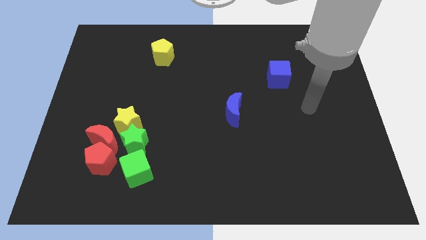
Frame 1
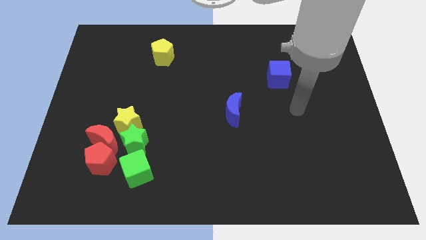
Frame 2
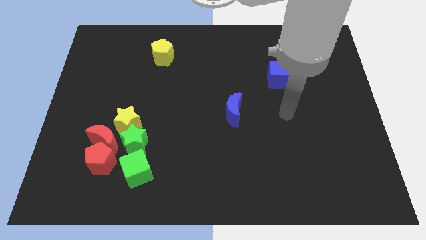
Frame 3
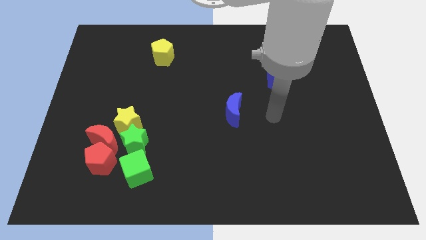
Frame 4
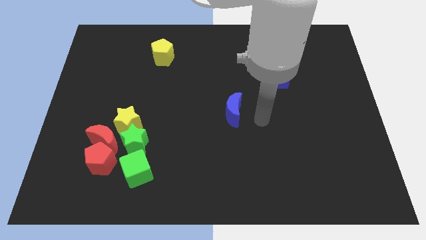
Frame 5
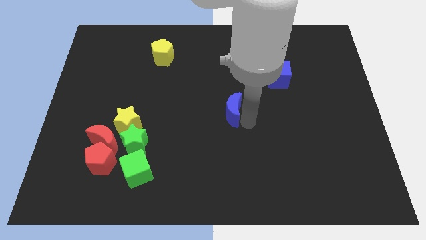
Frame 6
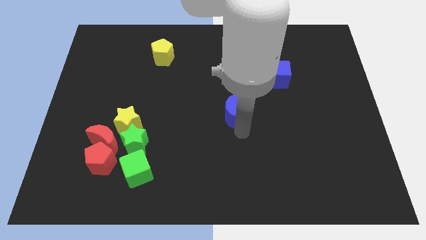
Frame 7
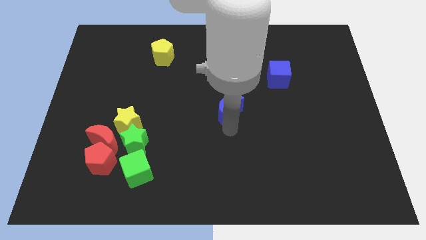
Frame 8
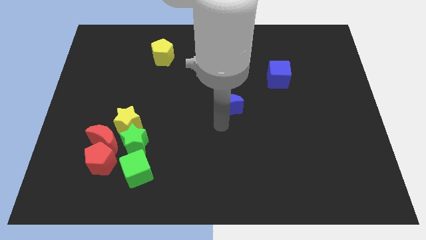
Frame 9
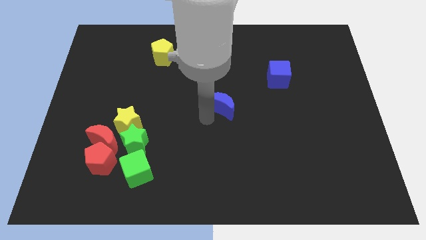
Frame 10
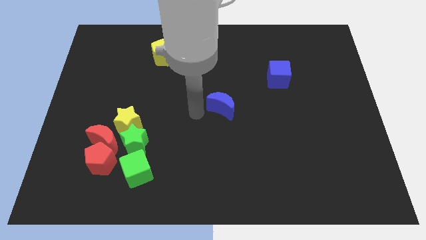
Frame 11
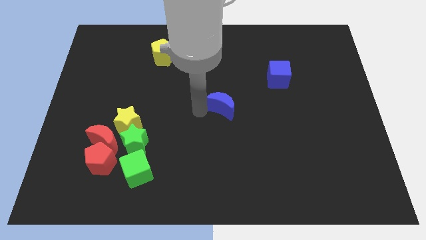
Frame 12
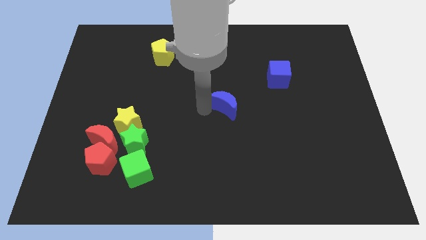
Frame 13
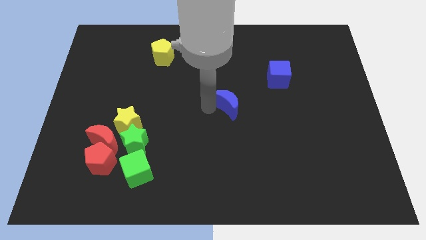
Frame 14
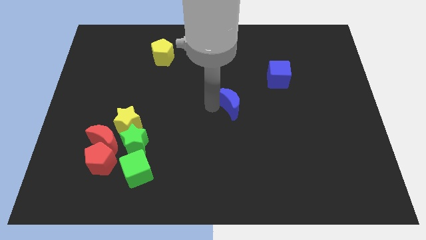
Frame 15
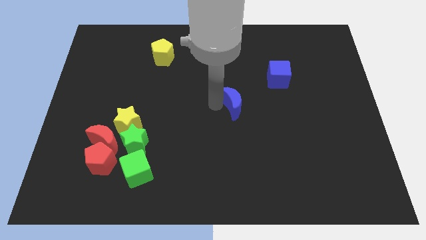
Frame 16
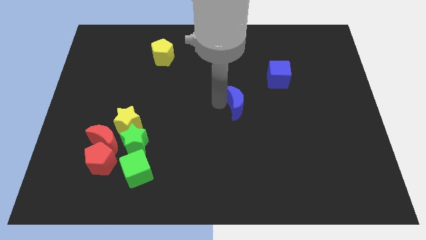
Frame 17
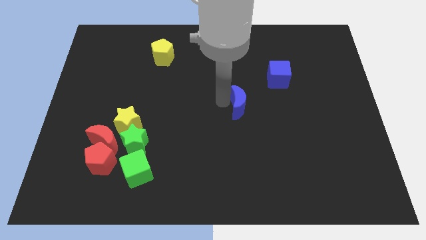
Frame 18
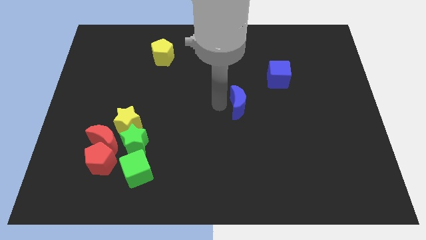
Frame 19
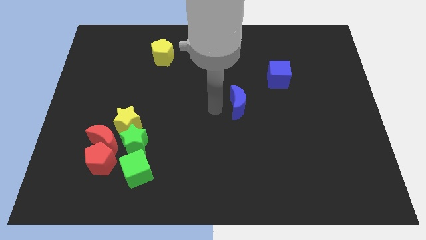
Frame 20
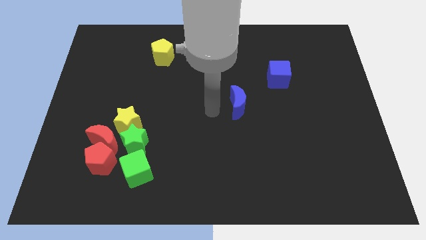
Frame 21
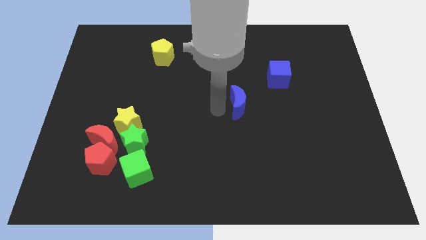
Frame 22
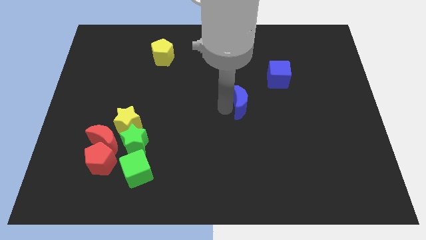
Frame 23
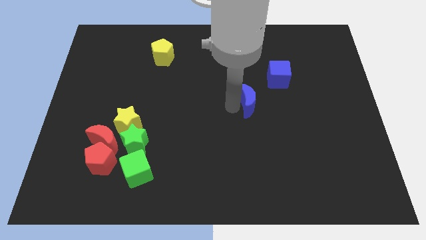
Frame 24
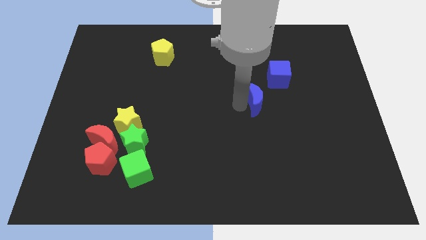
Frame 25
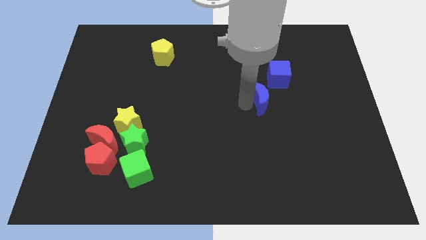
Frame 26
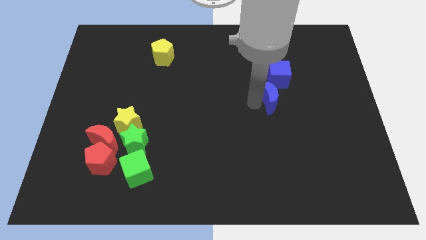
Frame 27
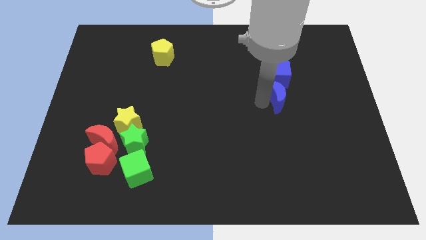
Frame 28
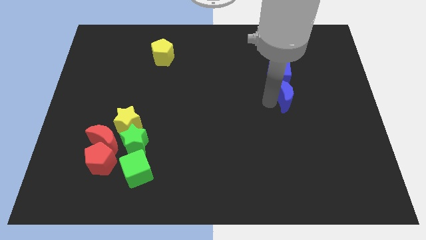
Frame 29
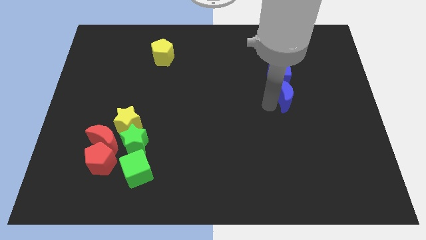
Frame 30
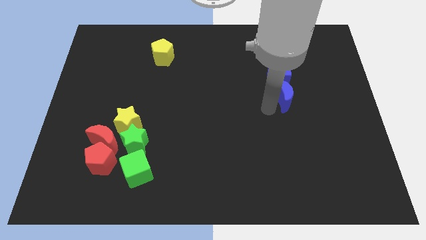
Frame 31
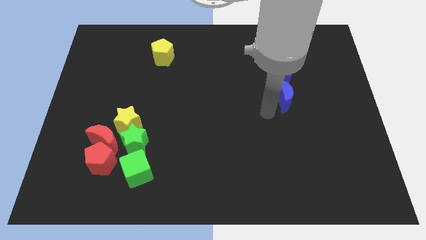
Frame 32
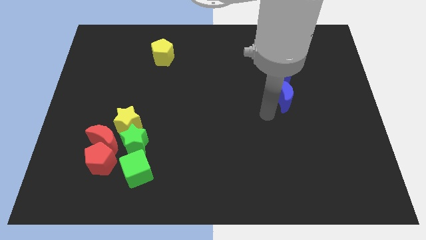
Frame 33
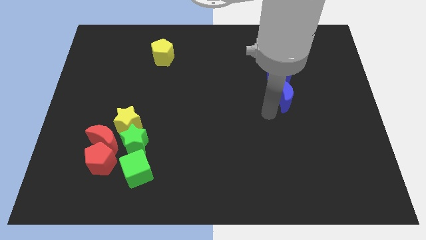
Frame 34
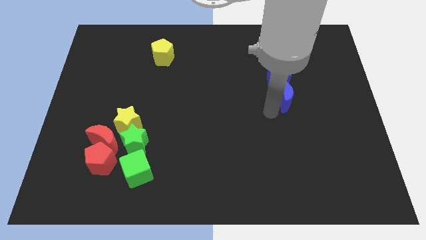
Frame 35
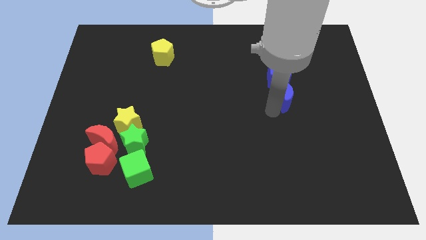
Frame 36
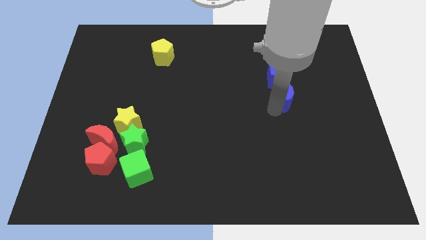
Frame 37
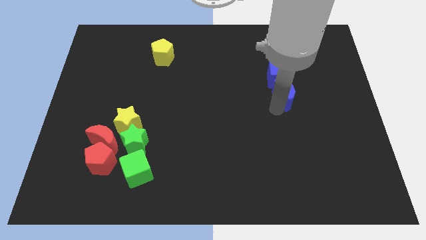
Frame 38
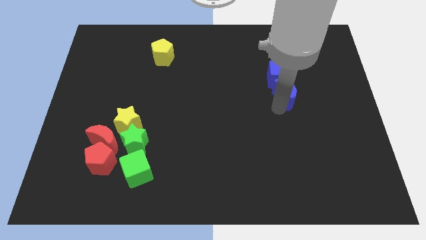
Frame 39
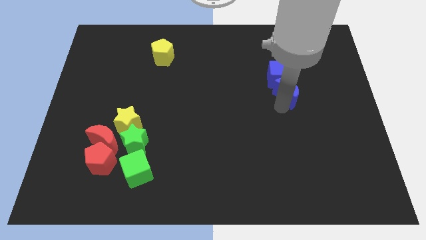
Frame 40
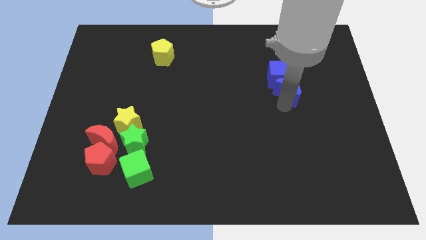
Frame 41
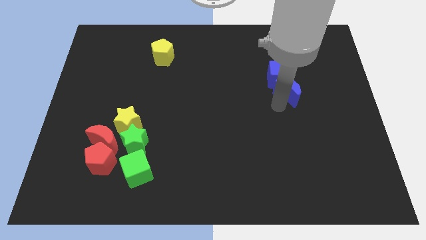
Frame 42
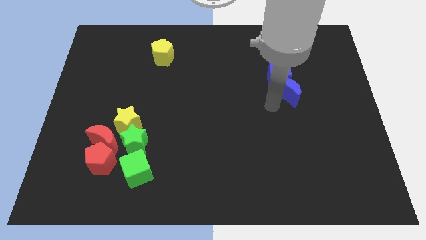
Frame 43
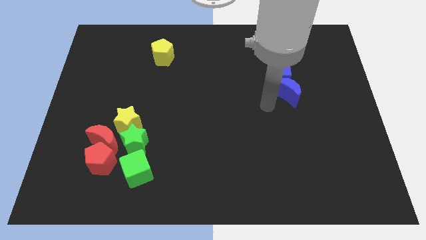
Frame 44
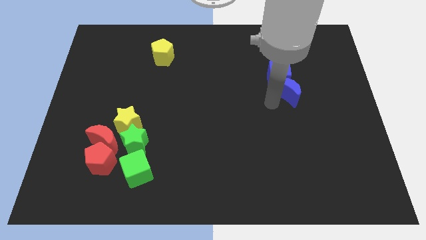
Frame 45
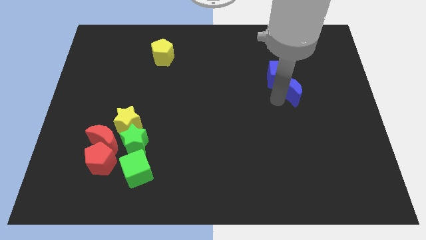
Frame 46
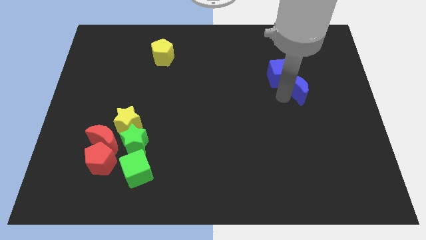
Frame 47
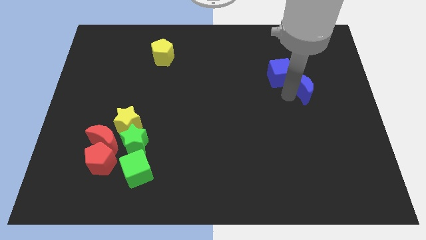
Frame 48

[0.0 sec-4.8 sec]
slide the blue moon just right of the blue cube

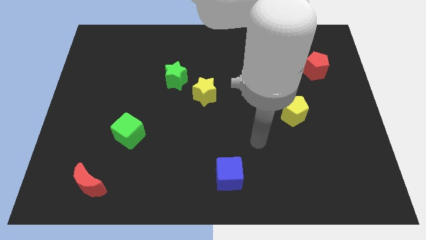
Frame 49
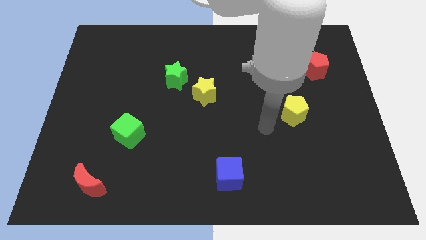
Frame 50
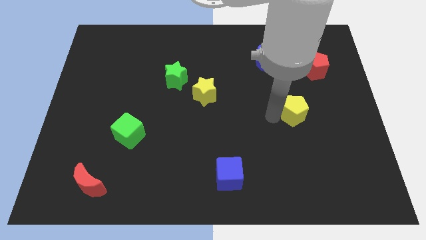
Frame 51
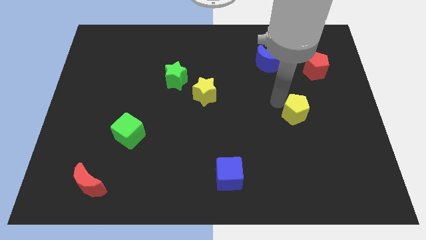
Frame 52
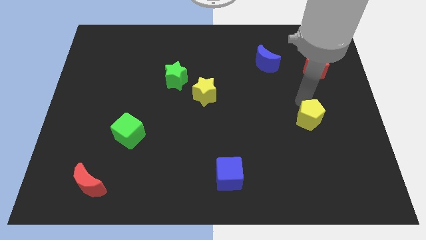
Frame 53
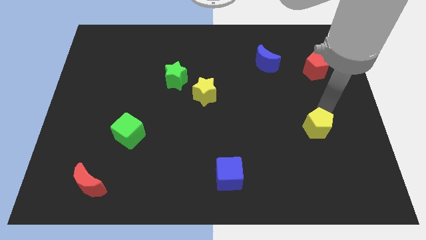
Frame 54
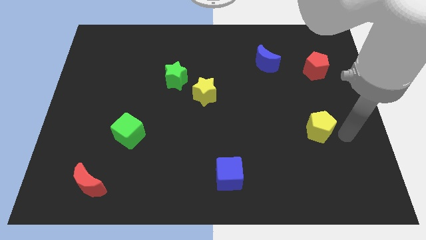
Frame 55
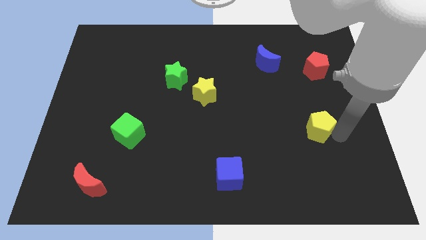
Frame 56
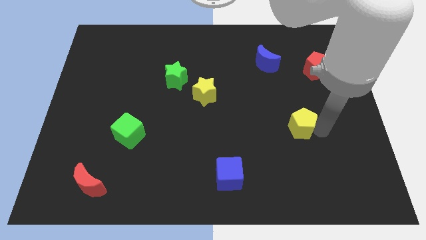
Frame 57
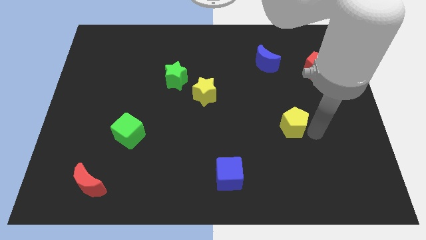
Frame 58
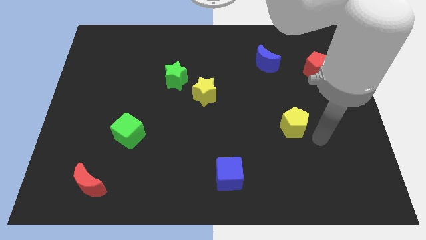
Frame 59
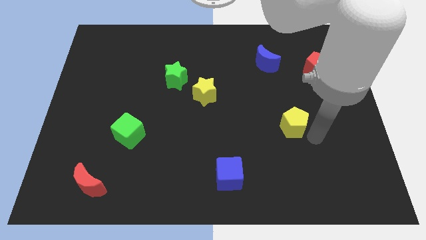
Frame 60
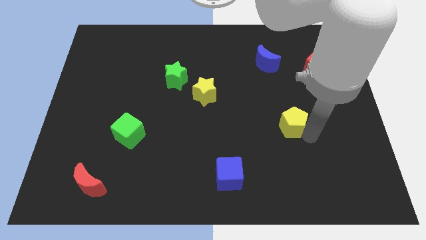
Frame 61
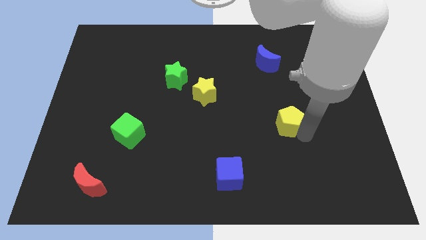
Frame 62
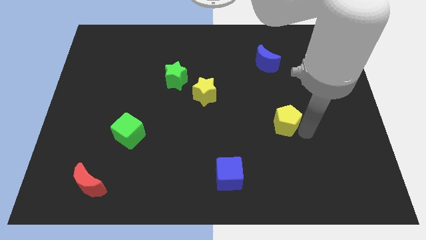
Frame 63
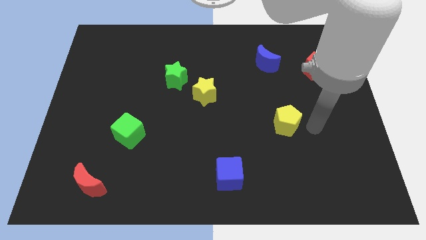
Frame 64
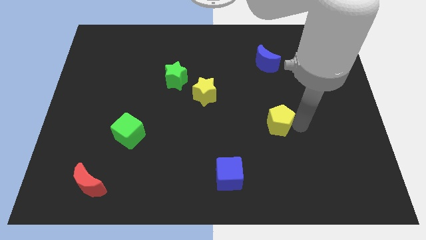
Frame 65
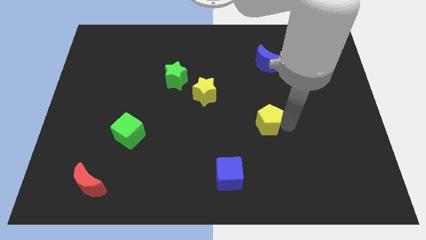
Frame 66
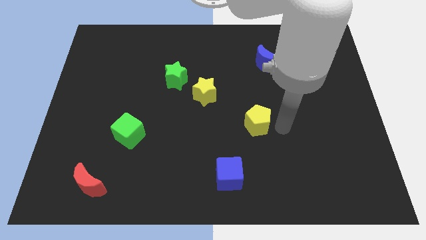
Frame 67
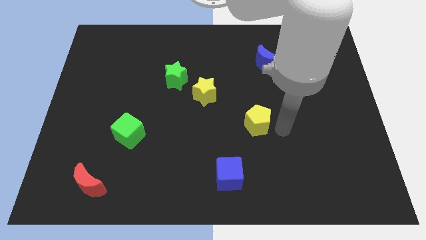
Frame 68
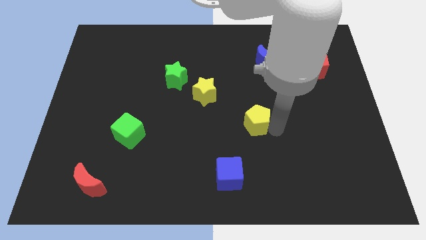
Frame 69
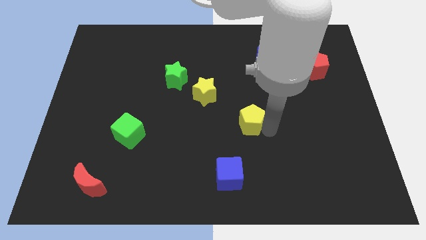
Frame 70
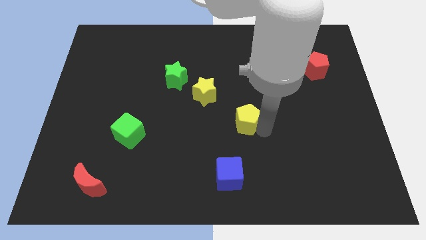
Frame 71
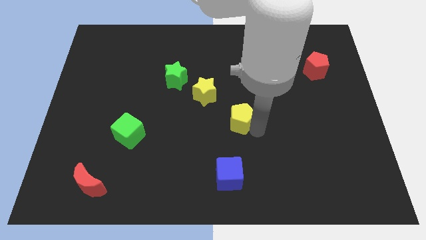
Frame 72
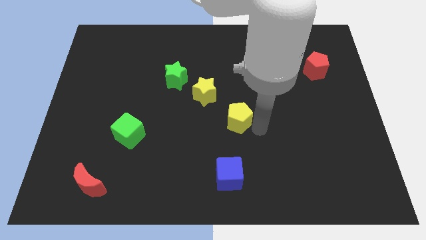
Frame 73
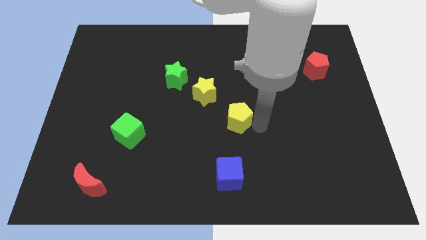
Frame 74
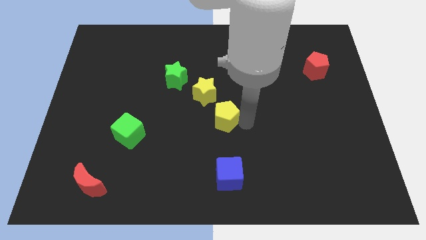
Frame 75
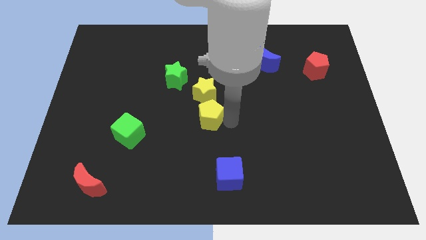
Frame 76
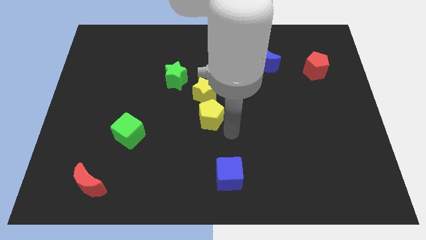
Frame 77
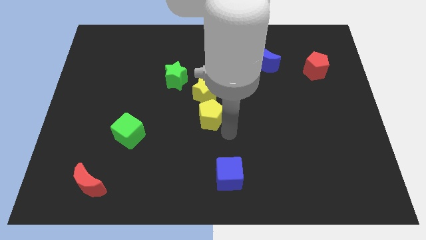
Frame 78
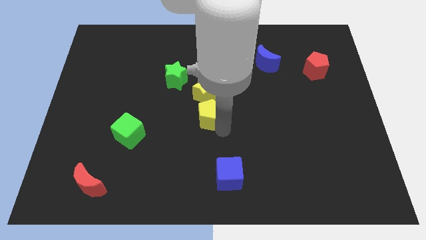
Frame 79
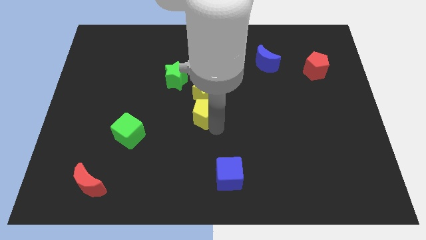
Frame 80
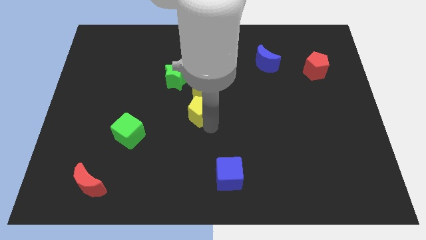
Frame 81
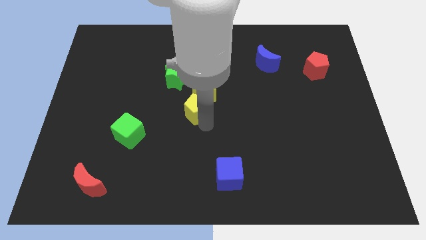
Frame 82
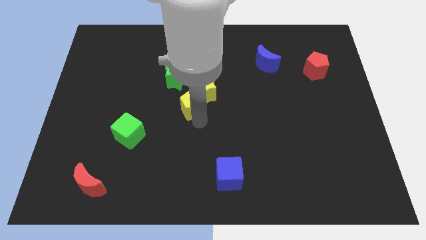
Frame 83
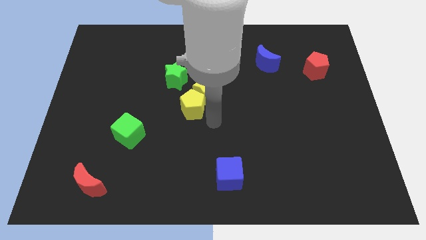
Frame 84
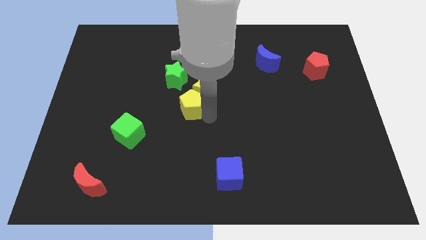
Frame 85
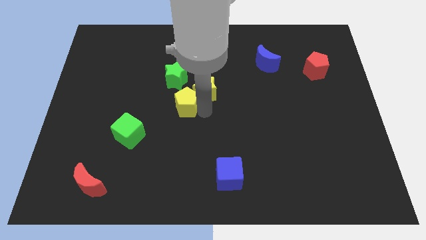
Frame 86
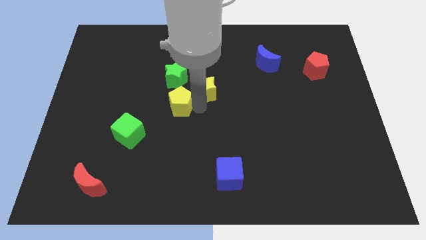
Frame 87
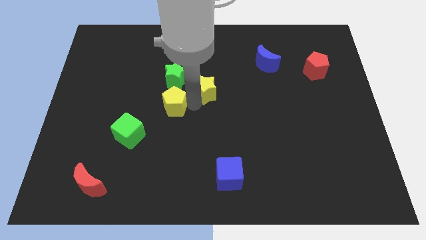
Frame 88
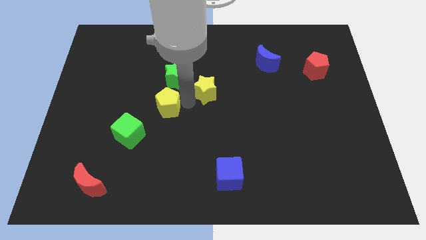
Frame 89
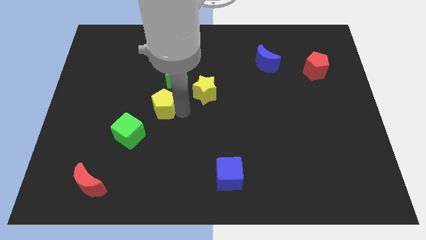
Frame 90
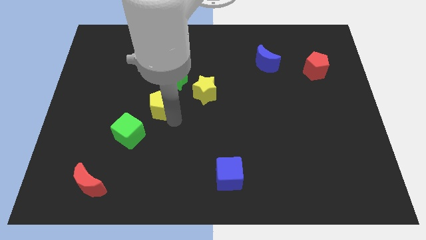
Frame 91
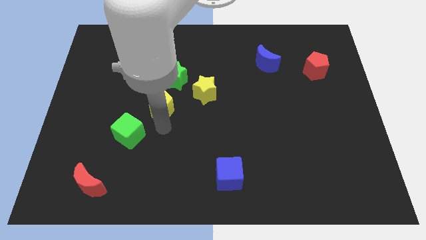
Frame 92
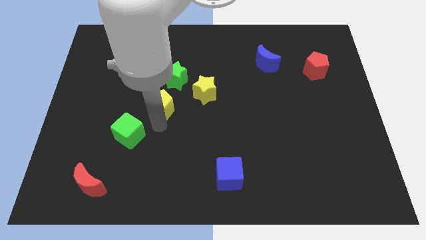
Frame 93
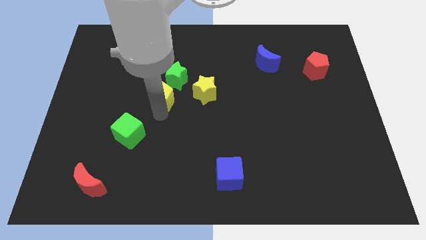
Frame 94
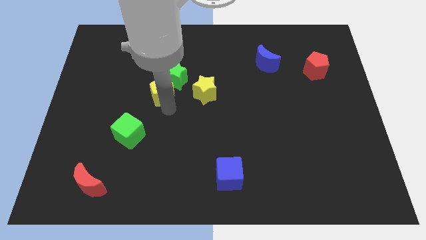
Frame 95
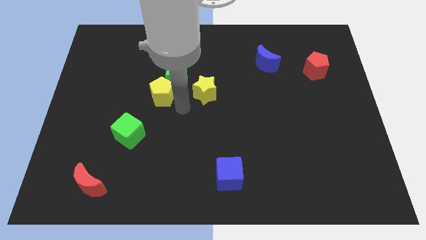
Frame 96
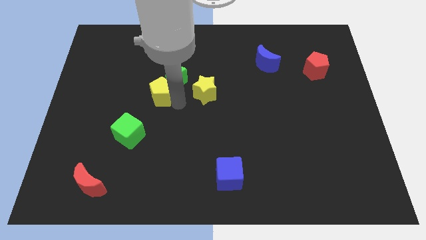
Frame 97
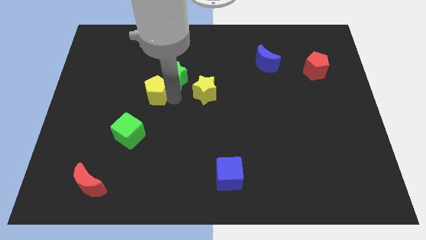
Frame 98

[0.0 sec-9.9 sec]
put the yellow pentagon just left of the green star
